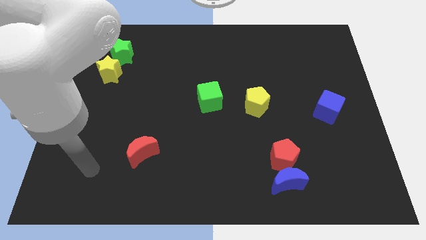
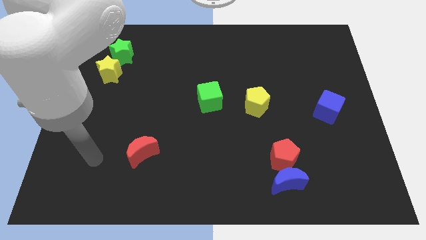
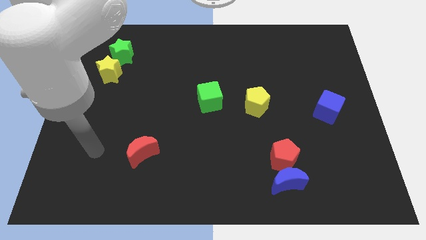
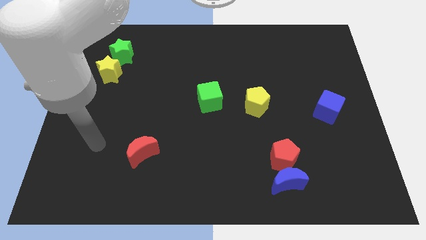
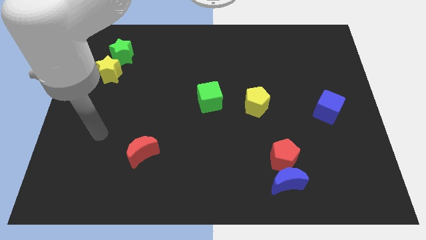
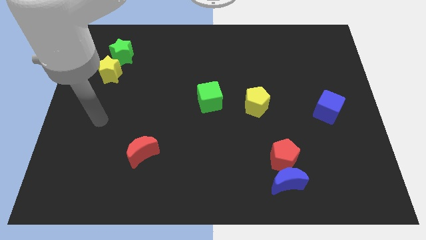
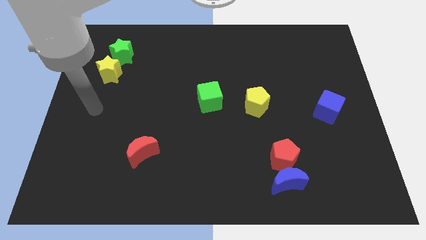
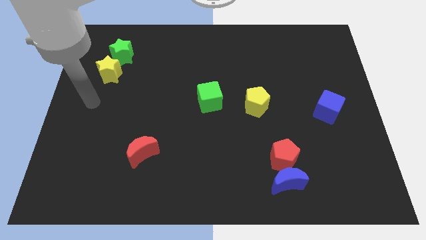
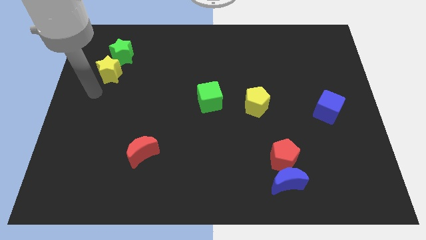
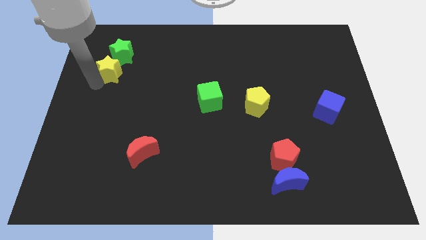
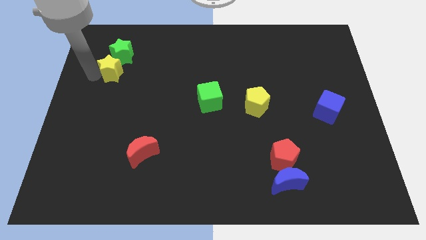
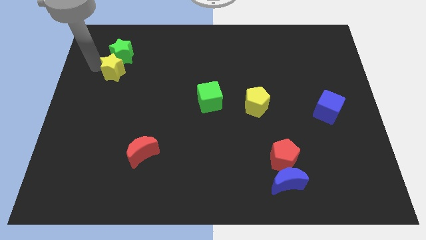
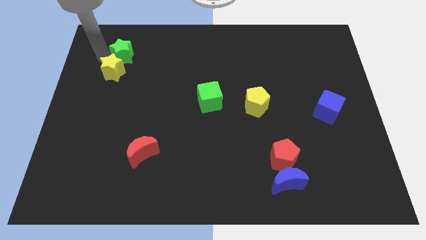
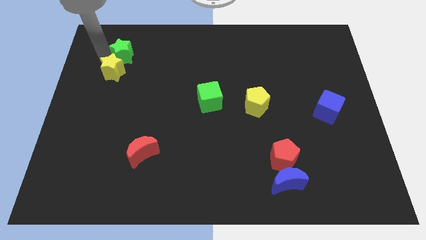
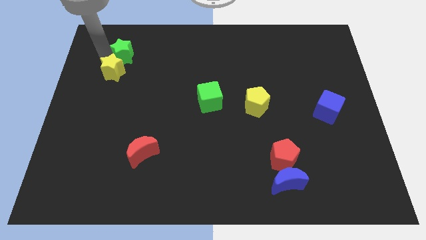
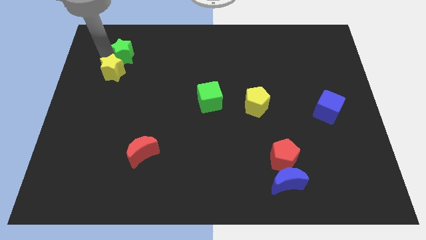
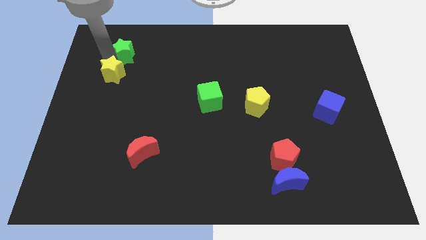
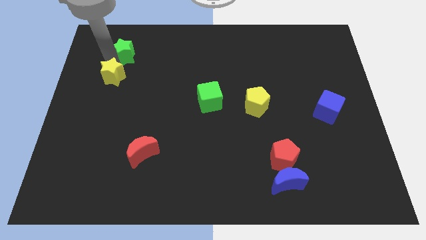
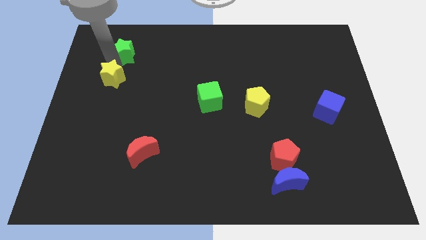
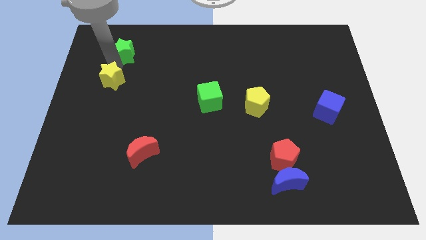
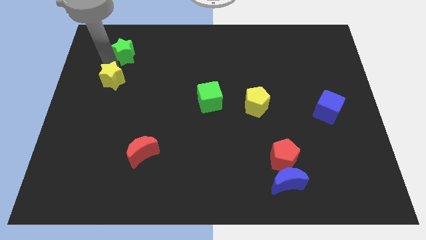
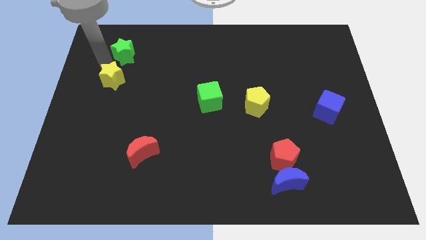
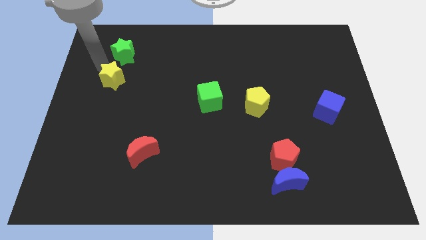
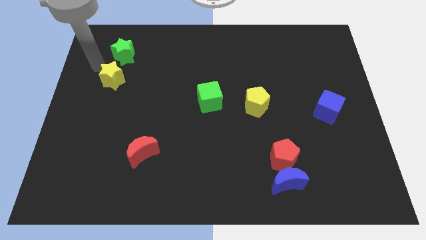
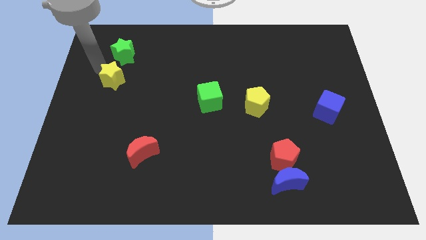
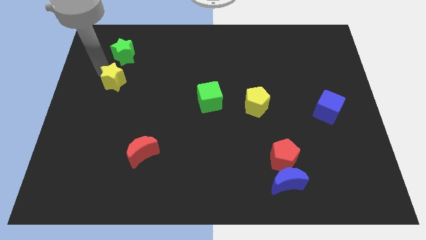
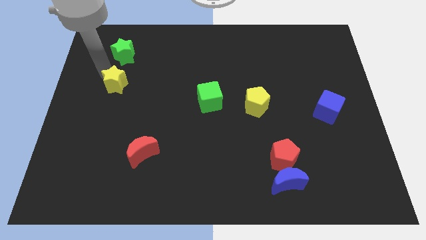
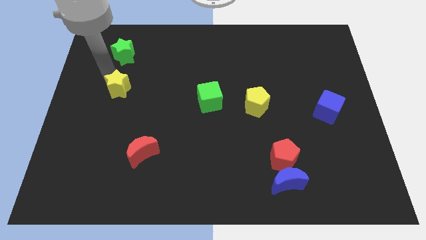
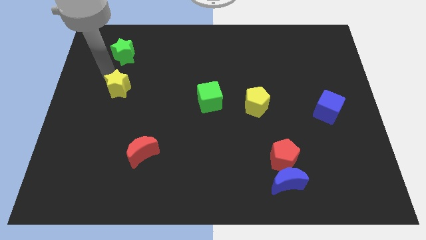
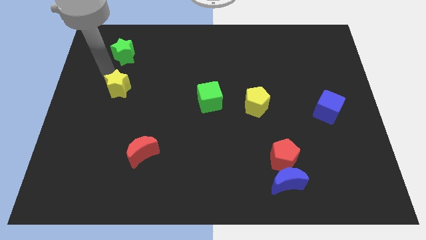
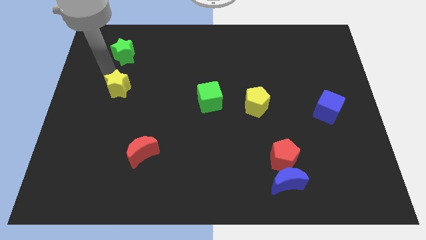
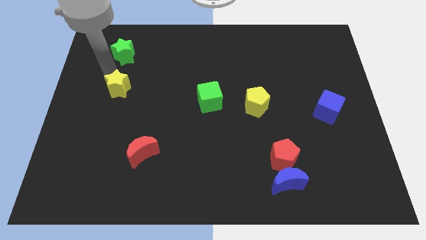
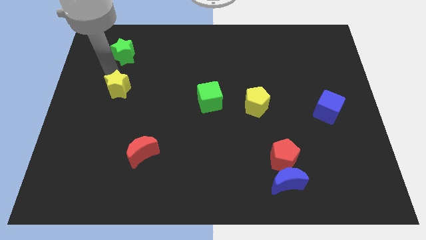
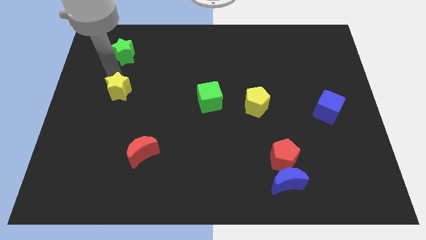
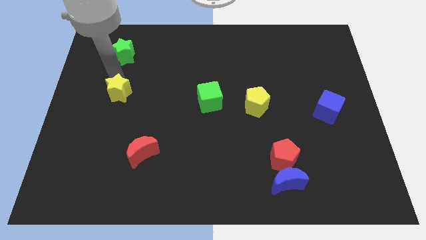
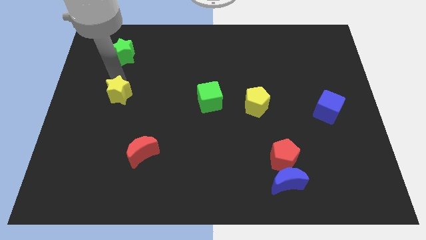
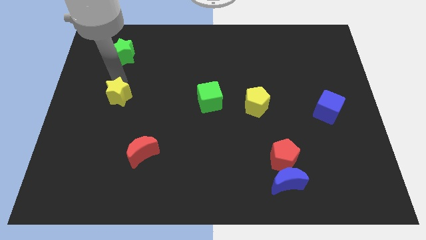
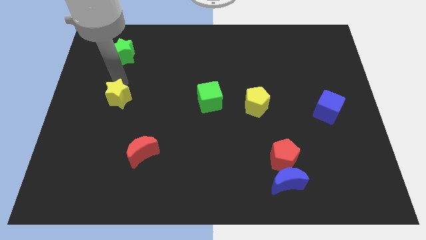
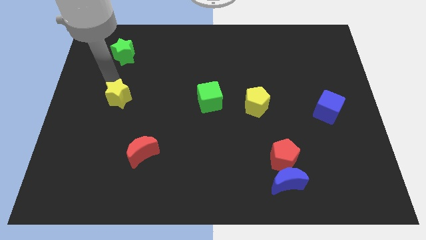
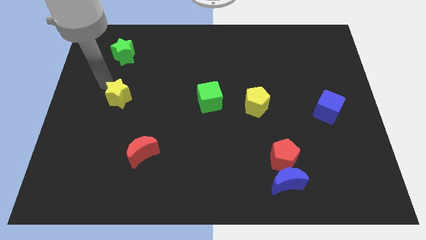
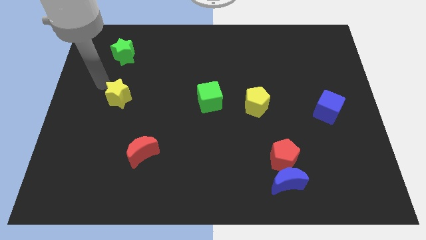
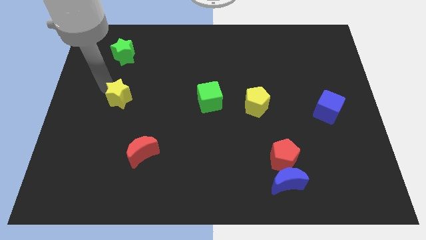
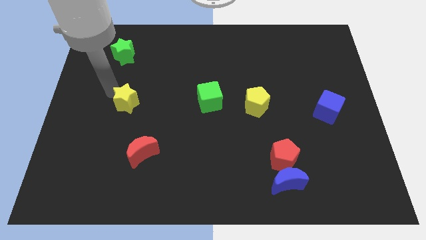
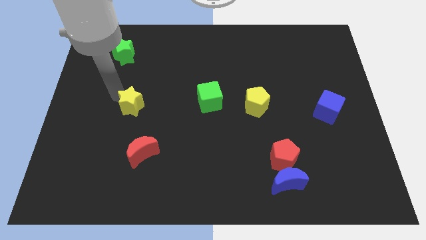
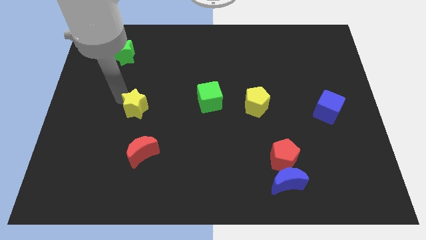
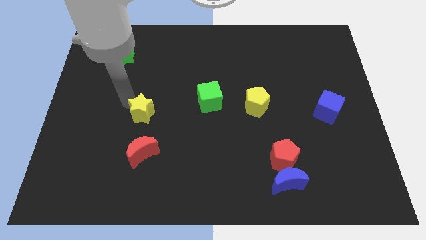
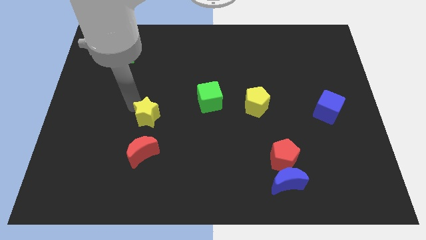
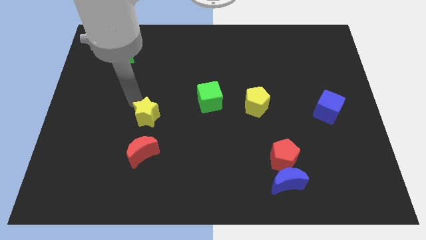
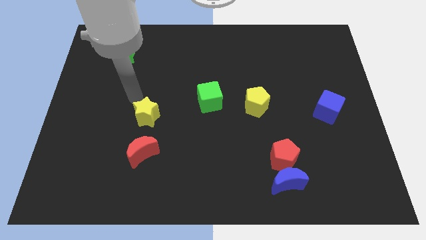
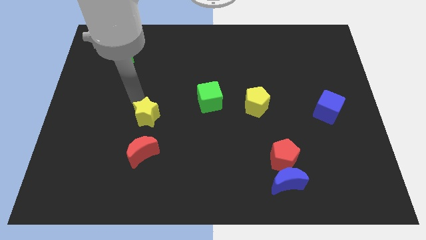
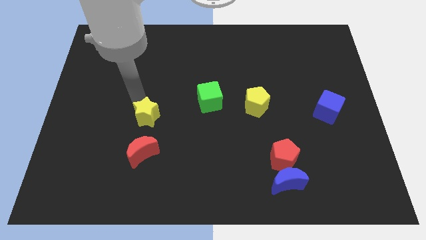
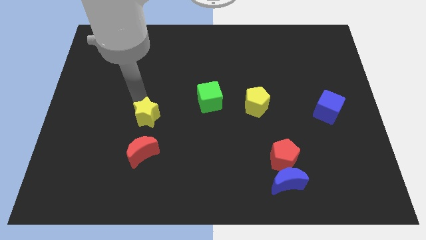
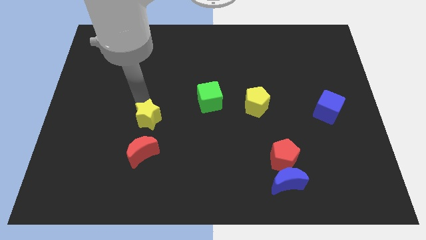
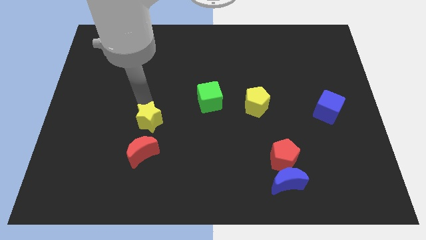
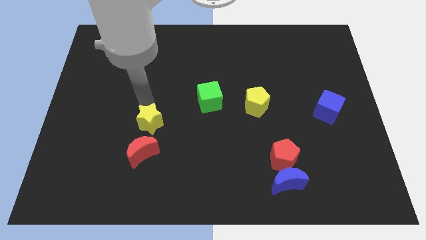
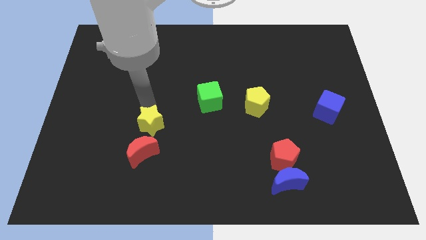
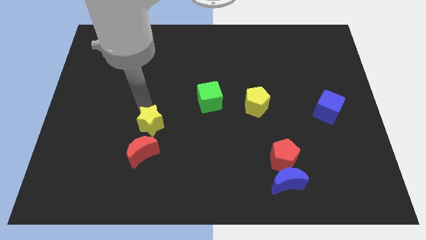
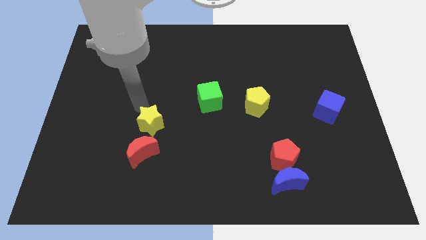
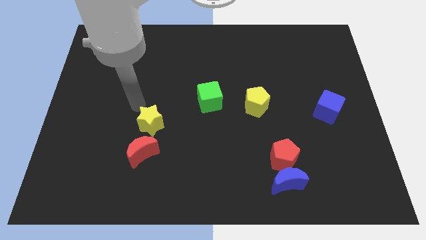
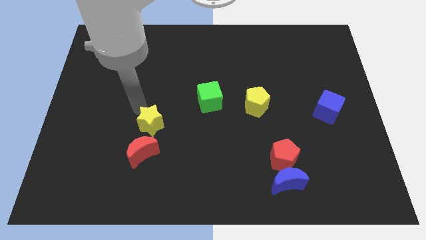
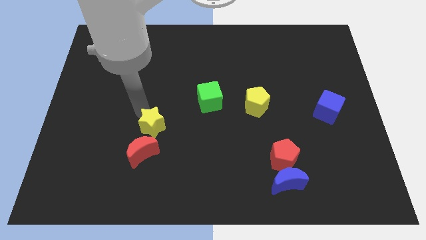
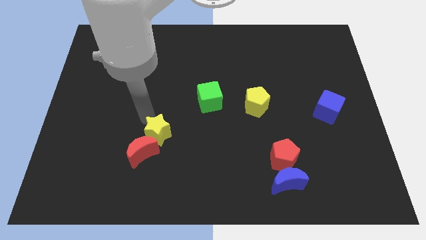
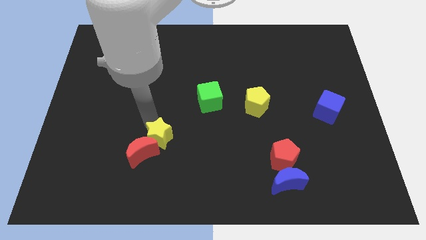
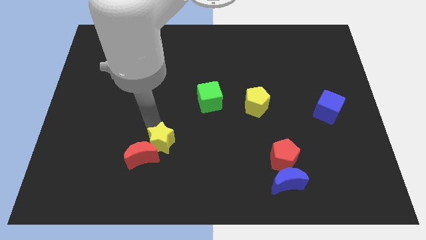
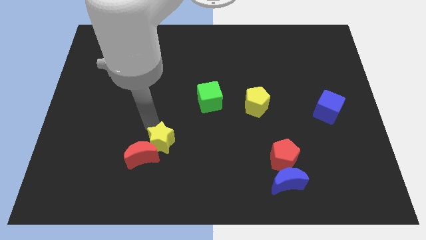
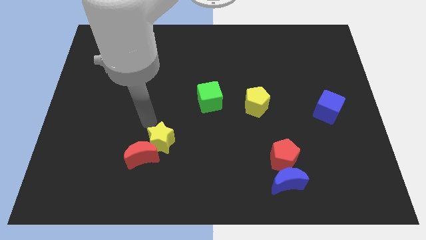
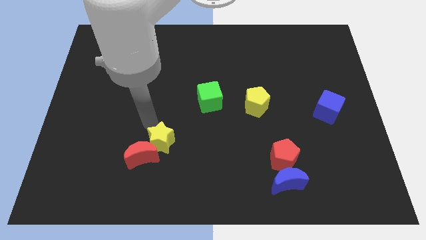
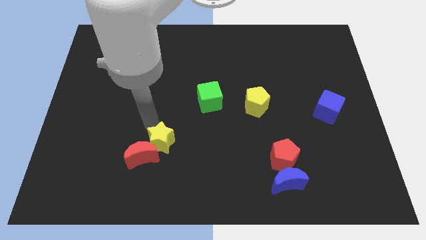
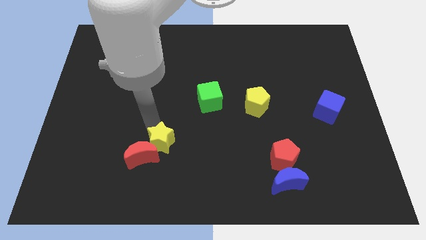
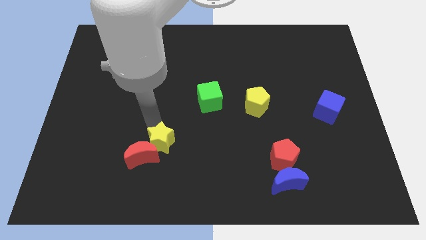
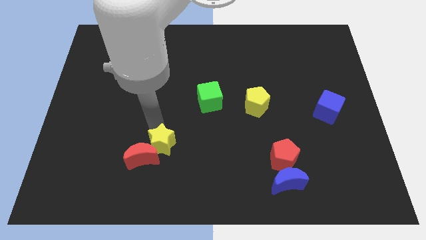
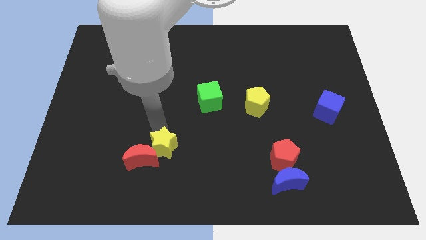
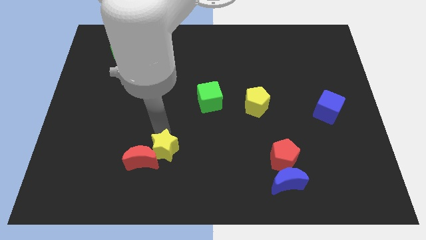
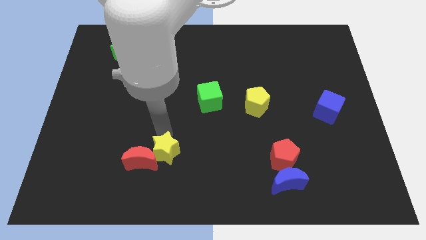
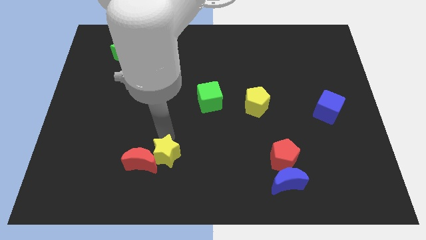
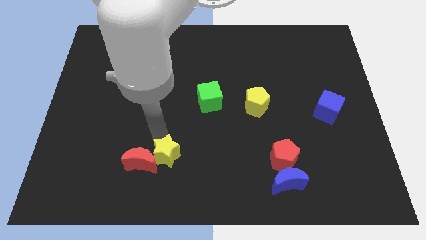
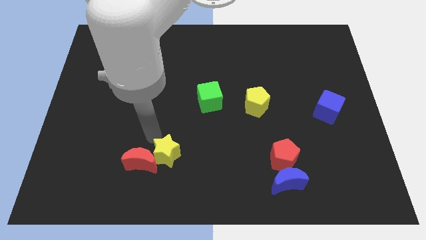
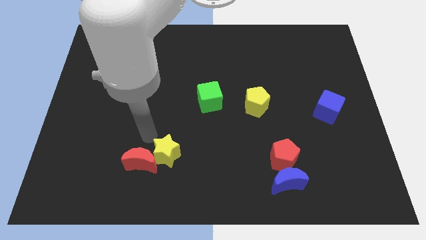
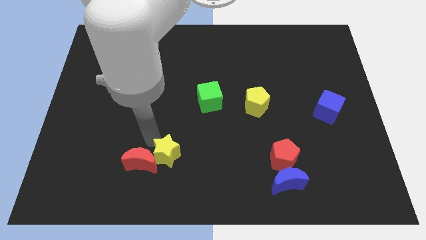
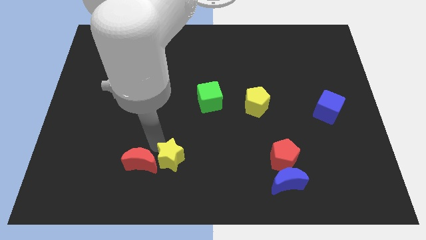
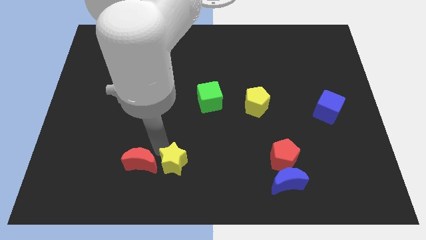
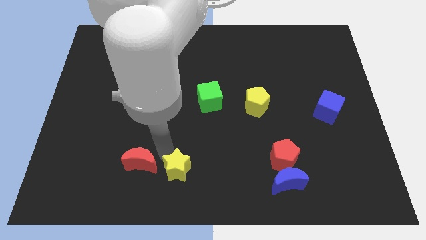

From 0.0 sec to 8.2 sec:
push the yellow star to the bottom
